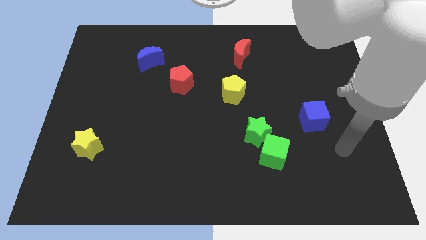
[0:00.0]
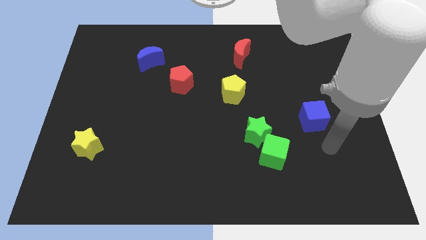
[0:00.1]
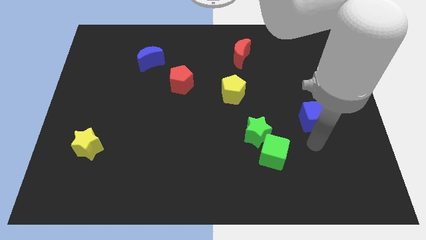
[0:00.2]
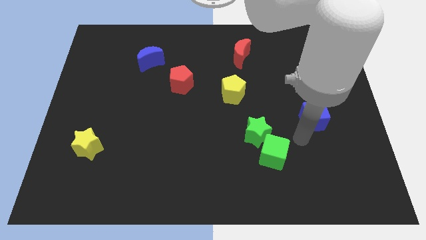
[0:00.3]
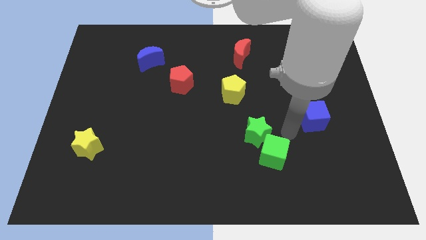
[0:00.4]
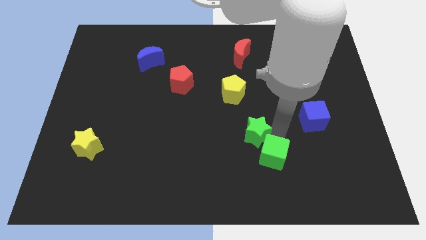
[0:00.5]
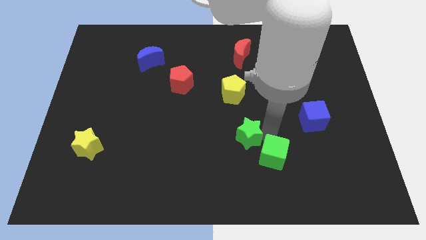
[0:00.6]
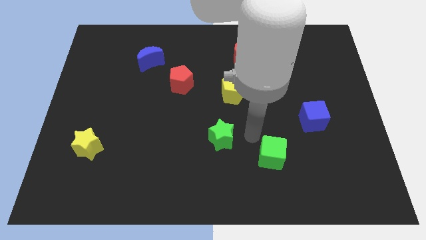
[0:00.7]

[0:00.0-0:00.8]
pull the green cube apart from the green star

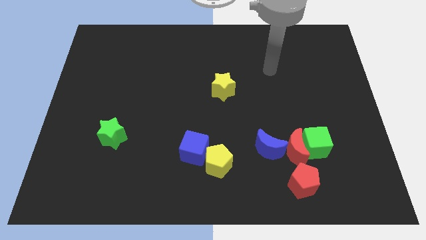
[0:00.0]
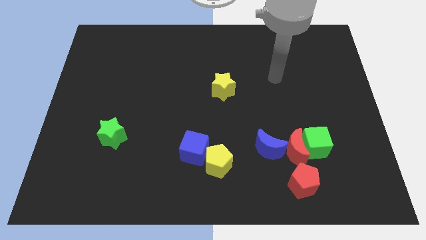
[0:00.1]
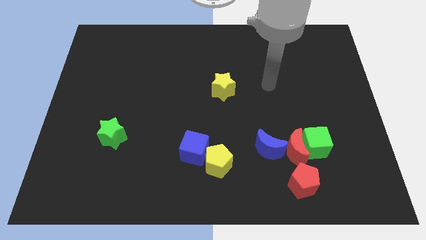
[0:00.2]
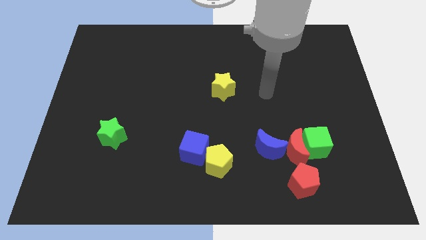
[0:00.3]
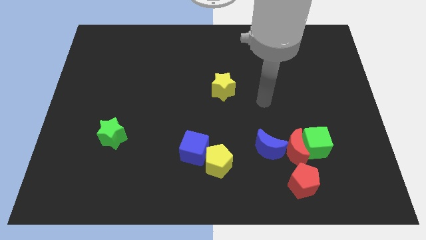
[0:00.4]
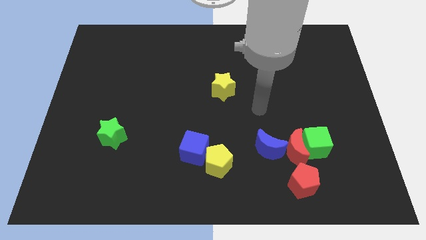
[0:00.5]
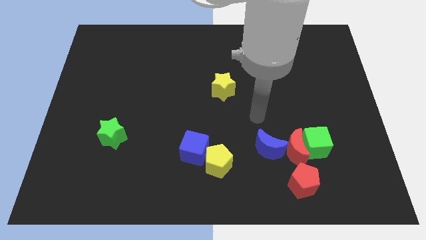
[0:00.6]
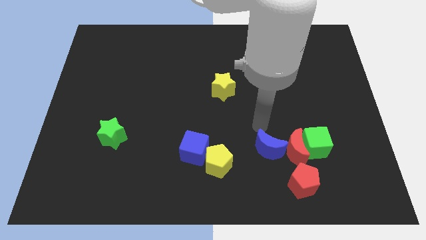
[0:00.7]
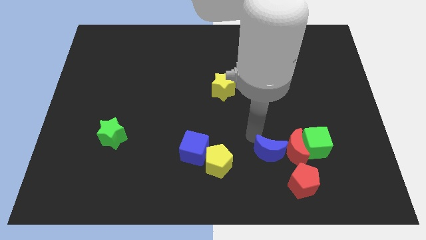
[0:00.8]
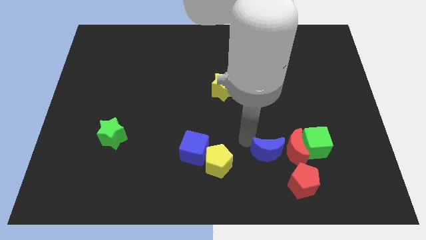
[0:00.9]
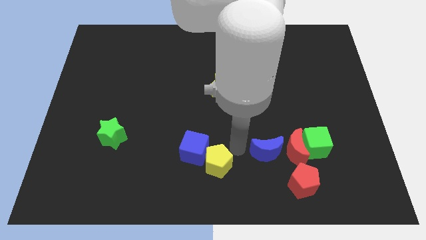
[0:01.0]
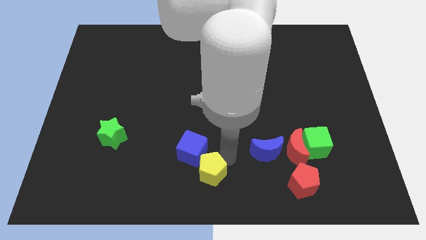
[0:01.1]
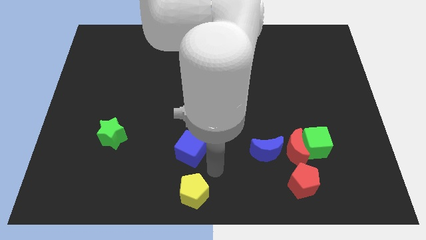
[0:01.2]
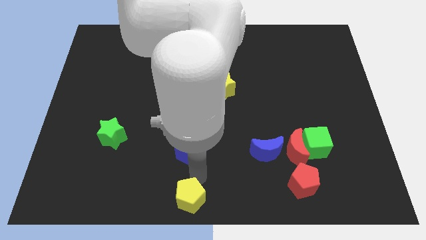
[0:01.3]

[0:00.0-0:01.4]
move the blue cube away from the yellow pentagon

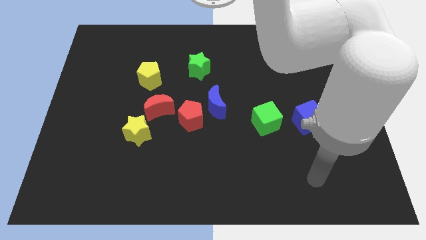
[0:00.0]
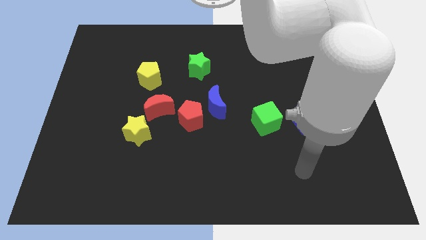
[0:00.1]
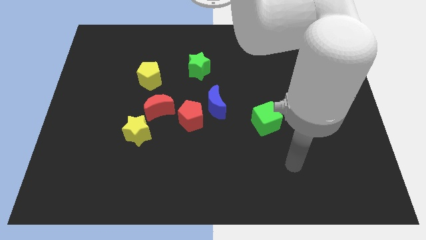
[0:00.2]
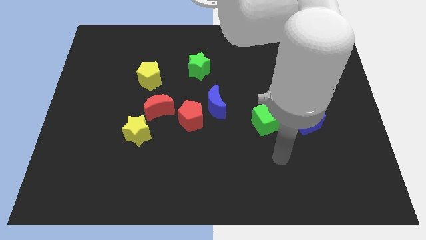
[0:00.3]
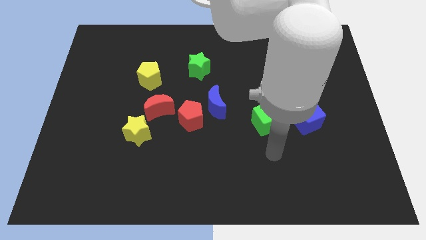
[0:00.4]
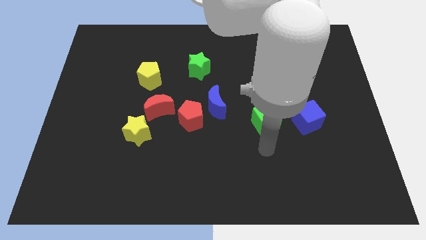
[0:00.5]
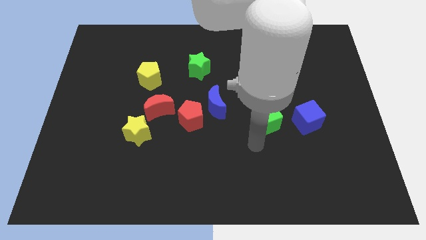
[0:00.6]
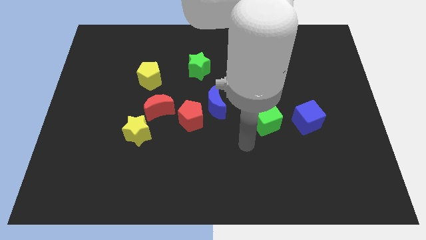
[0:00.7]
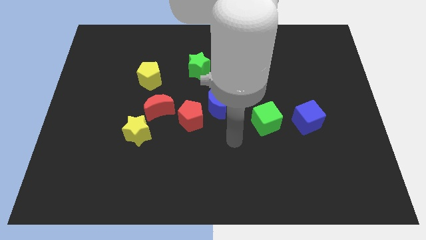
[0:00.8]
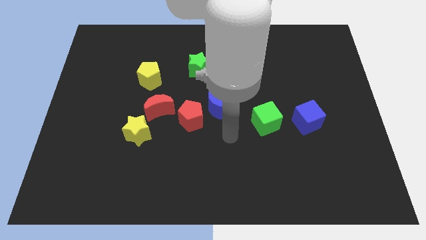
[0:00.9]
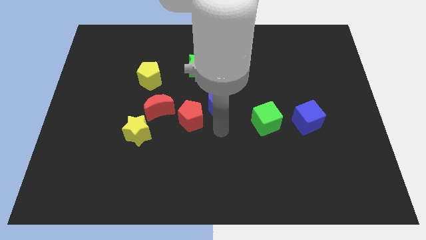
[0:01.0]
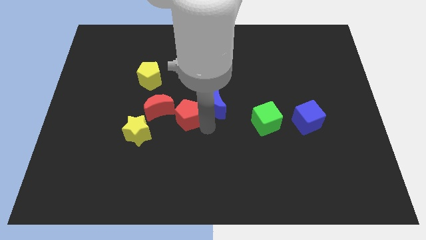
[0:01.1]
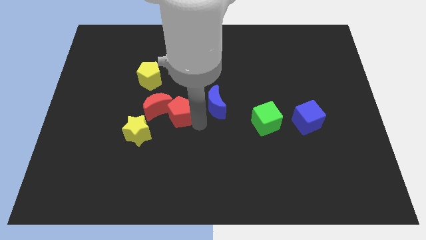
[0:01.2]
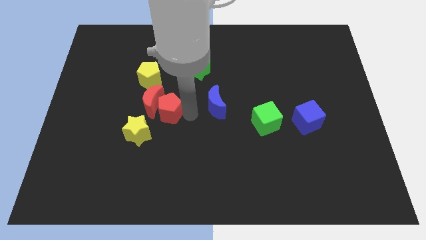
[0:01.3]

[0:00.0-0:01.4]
pull the blue moon apart from the red pentagon

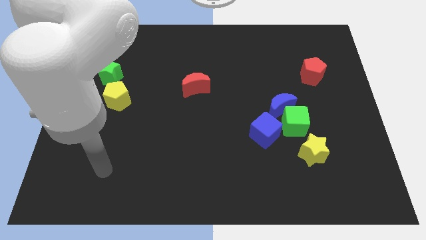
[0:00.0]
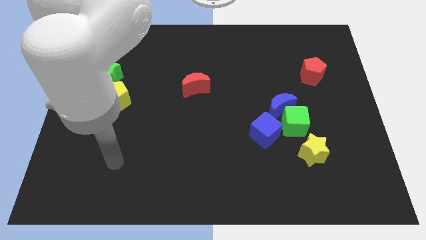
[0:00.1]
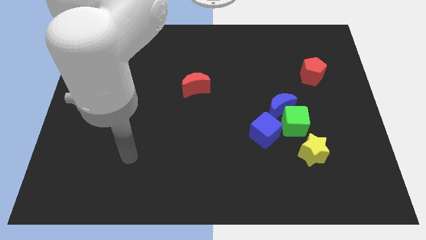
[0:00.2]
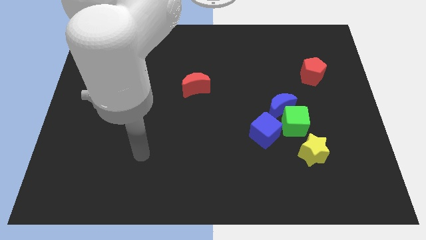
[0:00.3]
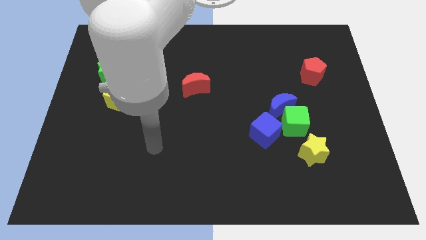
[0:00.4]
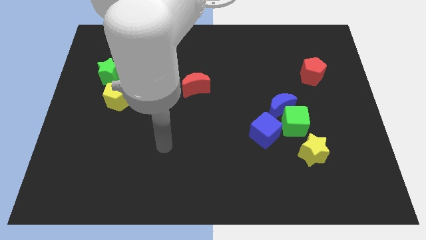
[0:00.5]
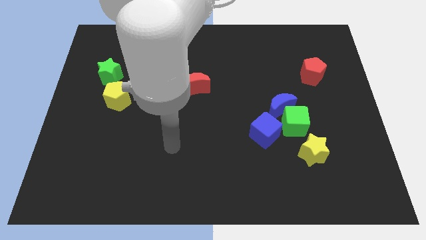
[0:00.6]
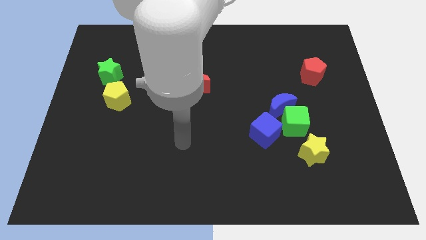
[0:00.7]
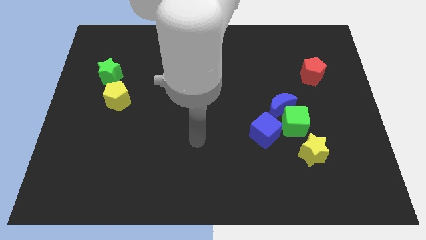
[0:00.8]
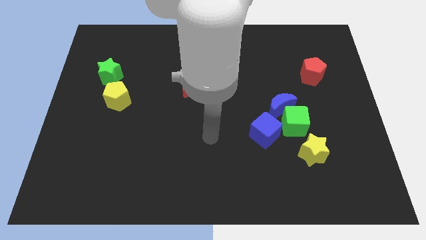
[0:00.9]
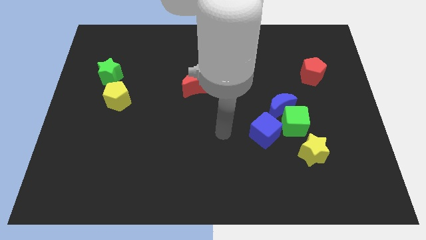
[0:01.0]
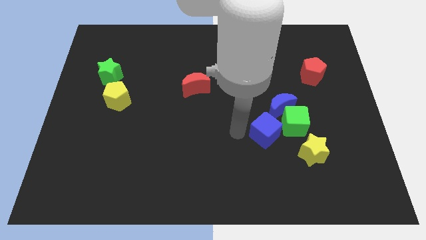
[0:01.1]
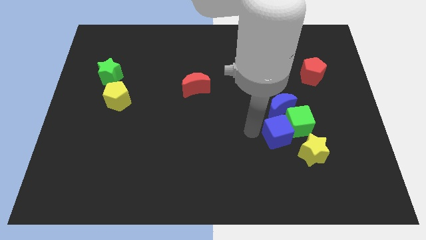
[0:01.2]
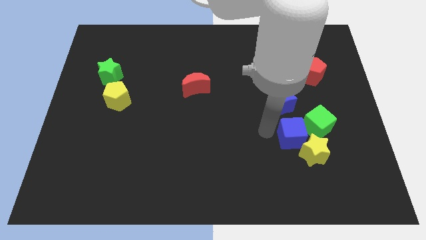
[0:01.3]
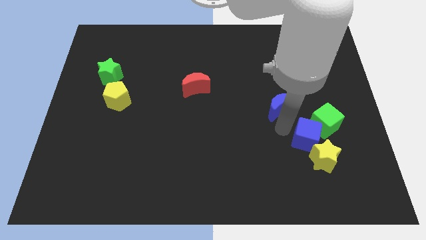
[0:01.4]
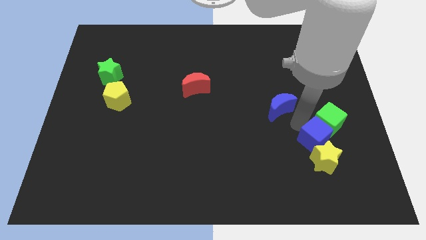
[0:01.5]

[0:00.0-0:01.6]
move the blue moon away from the green cube and blue cube

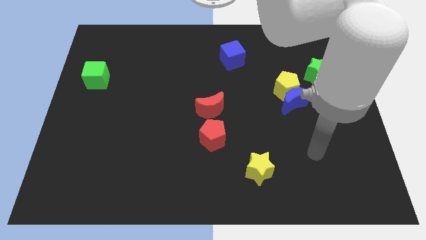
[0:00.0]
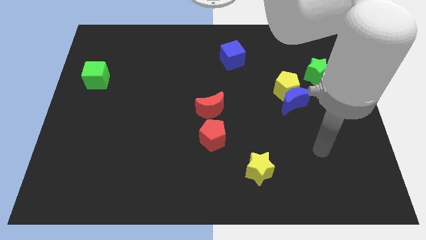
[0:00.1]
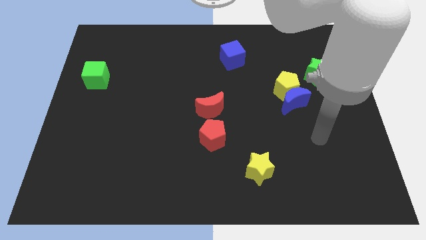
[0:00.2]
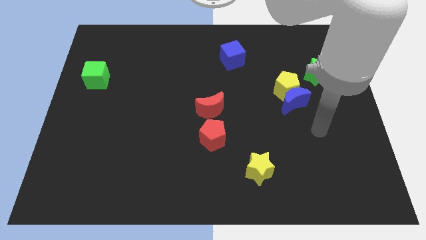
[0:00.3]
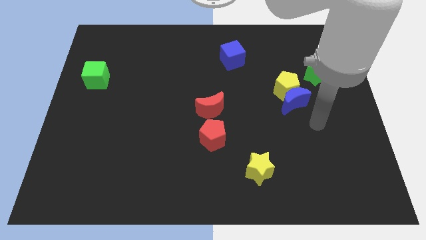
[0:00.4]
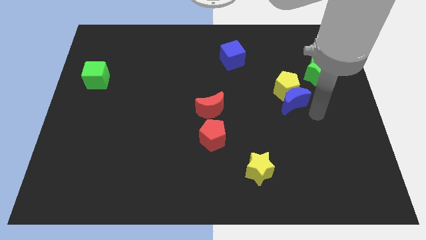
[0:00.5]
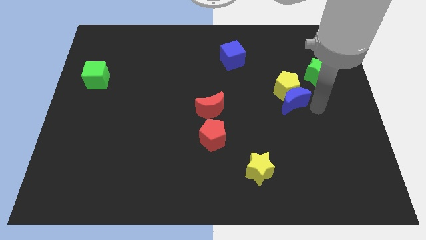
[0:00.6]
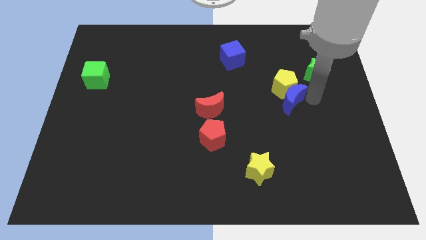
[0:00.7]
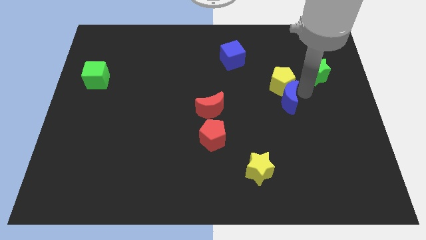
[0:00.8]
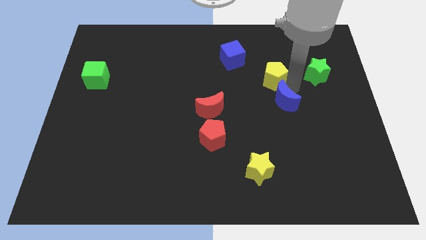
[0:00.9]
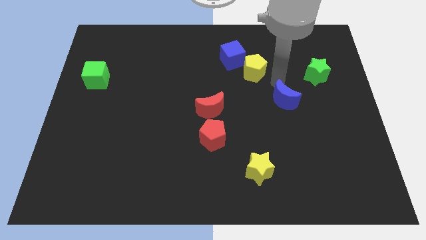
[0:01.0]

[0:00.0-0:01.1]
pull the blue moon apart from the yellow pentagon

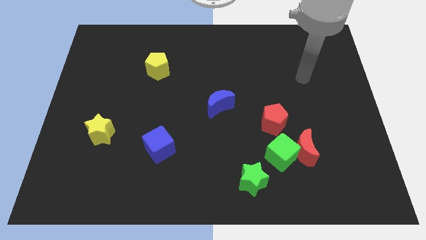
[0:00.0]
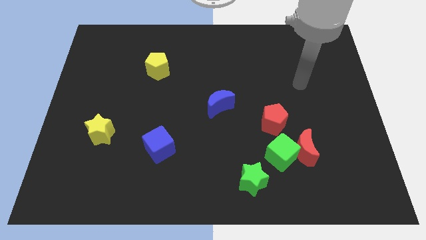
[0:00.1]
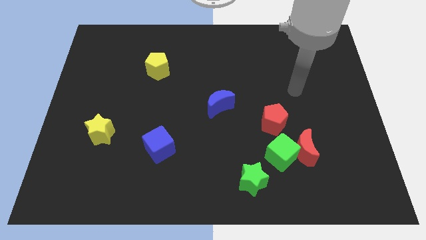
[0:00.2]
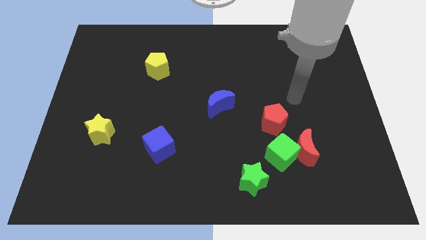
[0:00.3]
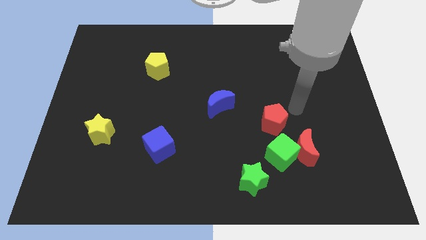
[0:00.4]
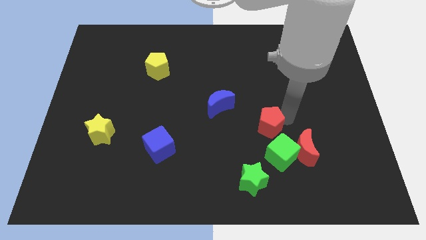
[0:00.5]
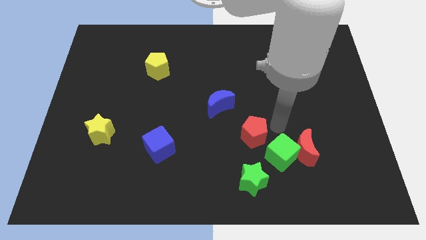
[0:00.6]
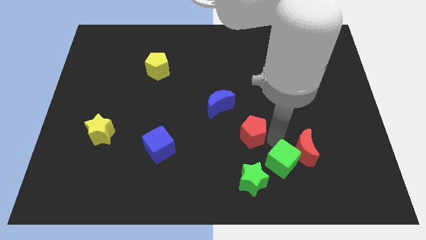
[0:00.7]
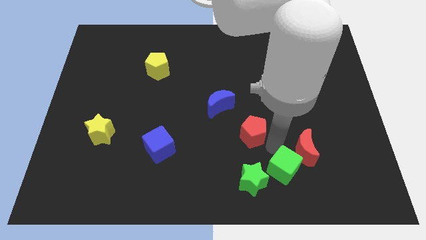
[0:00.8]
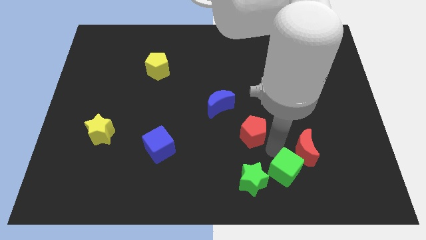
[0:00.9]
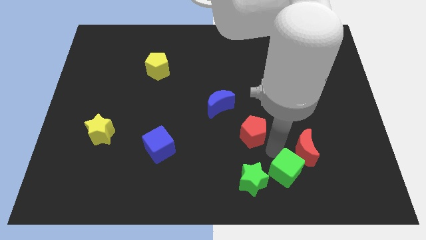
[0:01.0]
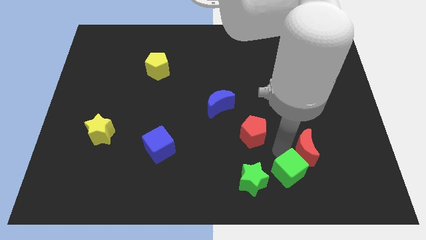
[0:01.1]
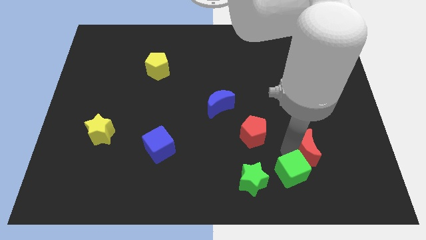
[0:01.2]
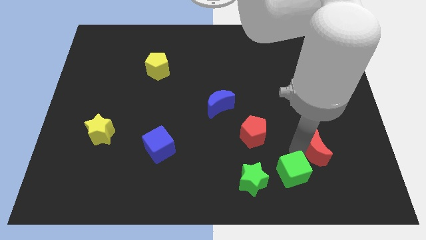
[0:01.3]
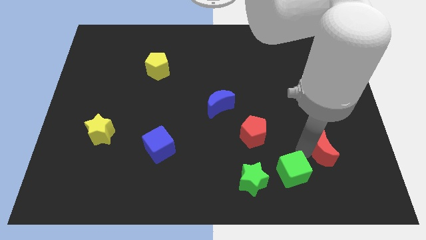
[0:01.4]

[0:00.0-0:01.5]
move the red moon away from the green cube and red pentagon

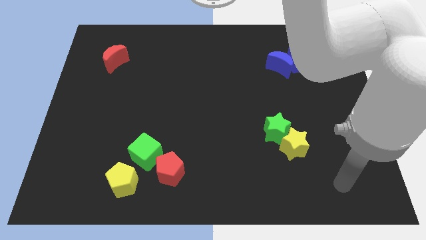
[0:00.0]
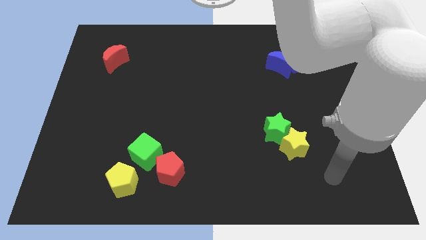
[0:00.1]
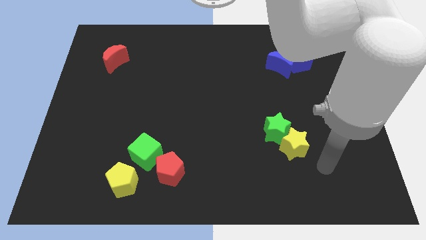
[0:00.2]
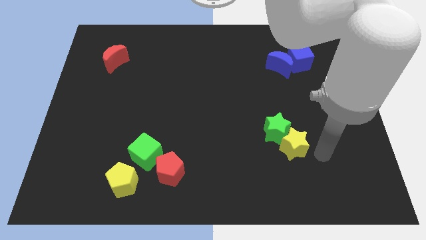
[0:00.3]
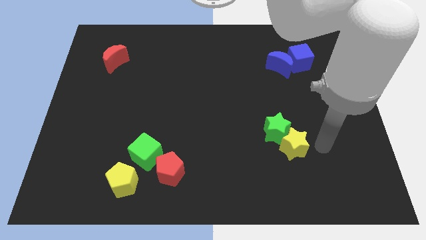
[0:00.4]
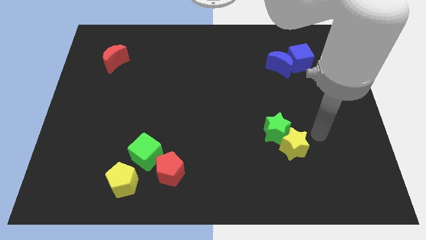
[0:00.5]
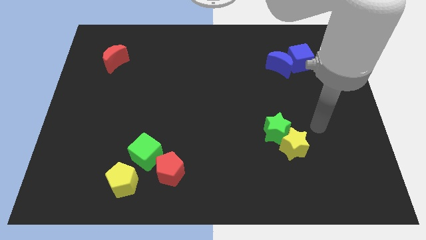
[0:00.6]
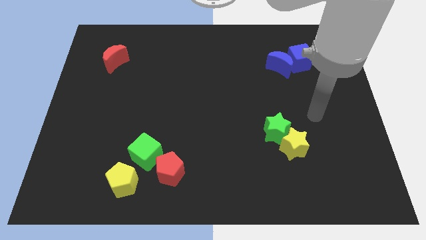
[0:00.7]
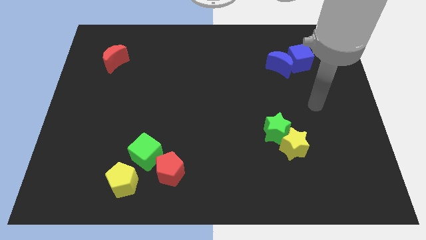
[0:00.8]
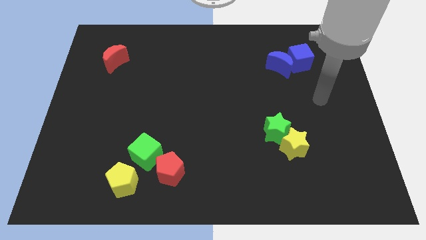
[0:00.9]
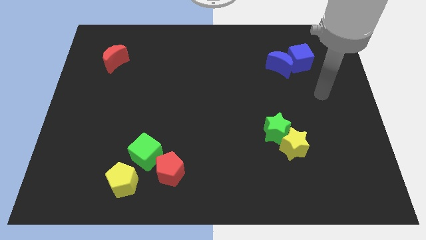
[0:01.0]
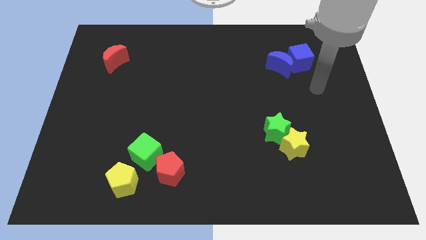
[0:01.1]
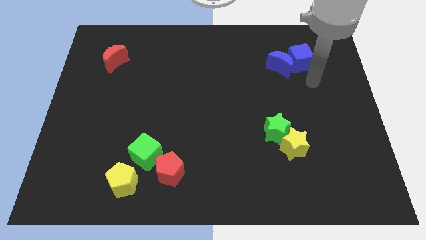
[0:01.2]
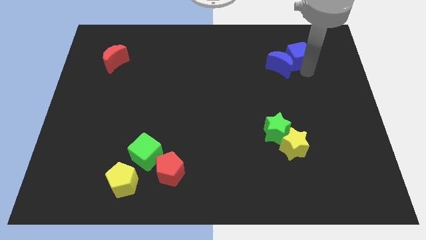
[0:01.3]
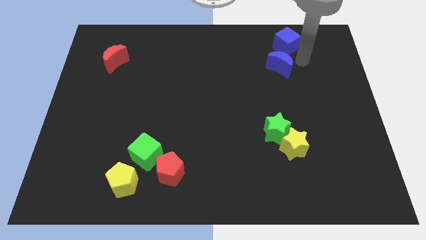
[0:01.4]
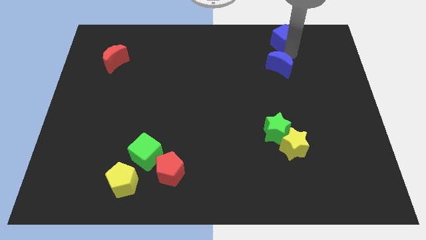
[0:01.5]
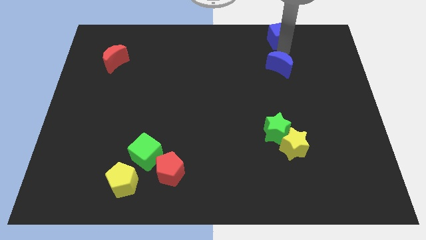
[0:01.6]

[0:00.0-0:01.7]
separate the blue moon from the blue cube
